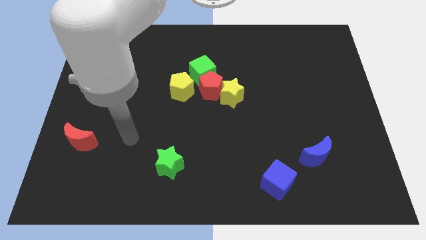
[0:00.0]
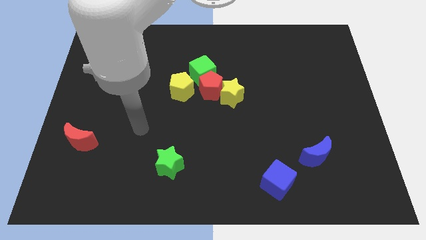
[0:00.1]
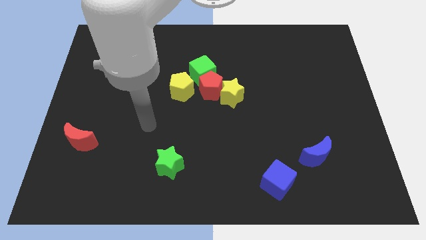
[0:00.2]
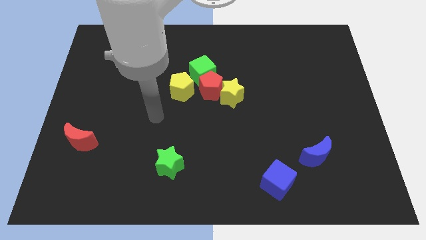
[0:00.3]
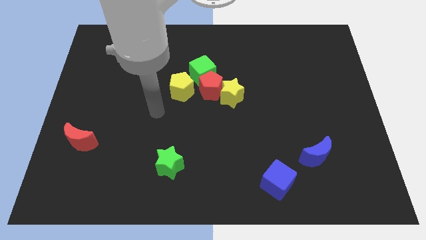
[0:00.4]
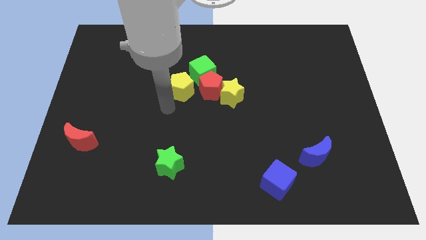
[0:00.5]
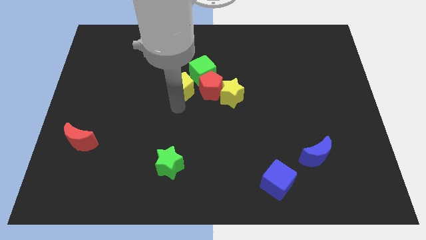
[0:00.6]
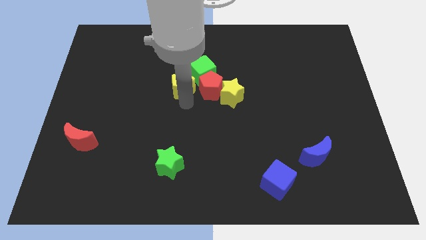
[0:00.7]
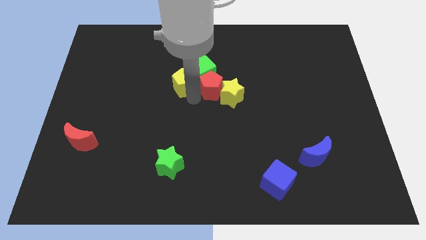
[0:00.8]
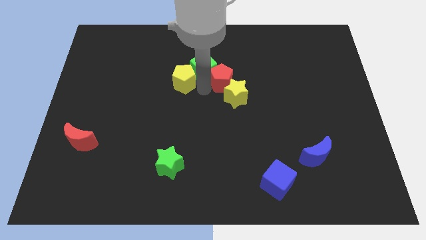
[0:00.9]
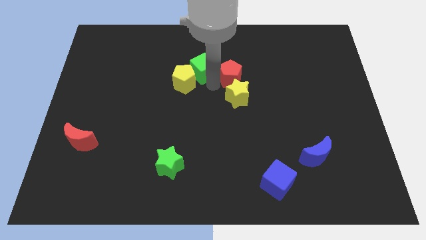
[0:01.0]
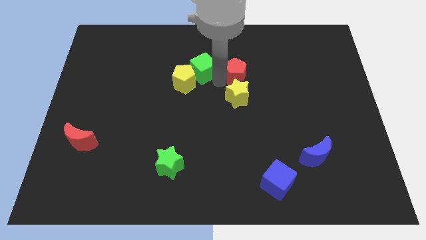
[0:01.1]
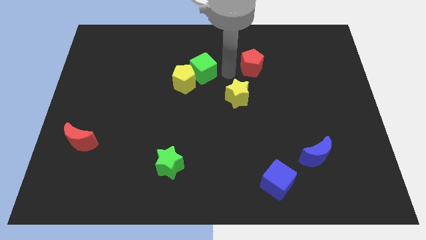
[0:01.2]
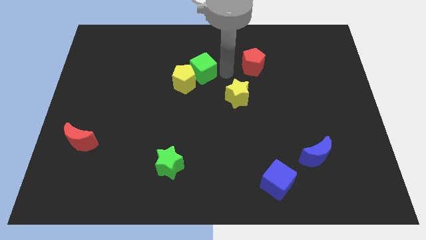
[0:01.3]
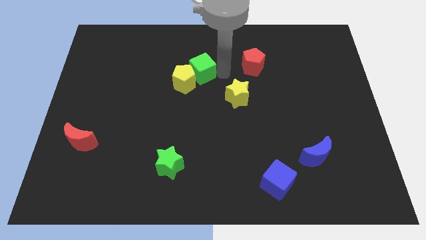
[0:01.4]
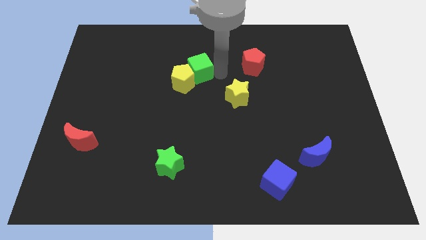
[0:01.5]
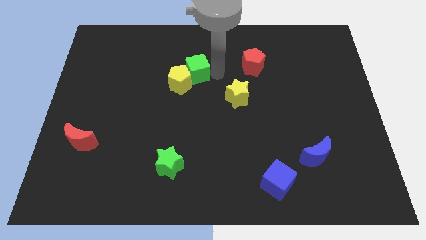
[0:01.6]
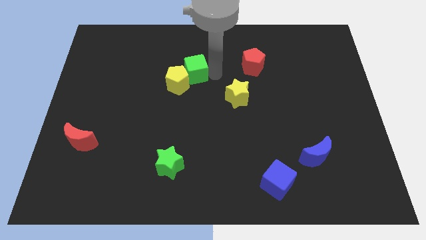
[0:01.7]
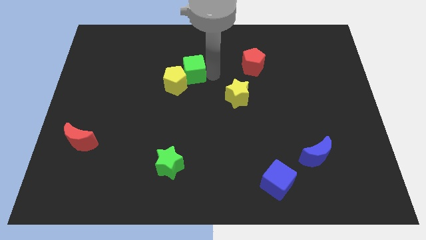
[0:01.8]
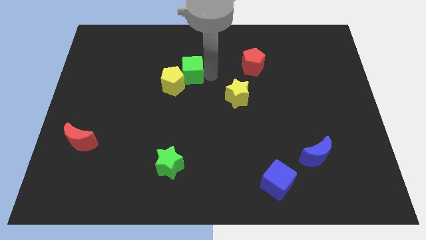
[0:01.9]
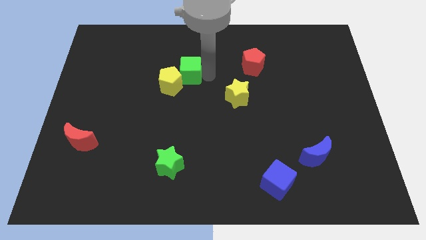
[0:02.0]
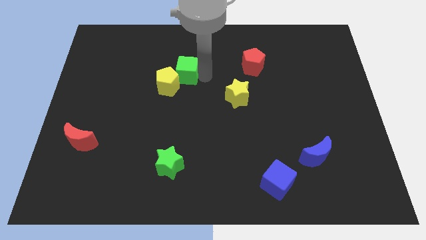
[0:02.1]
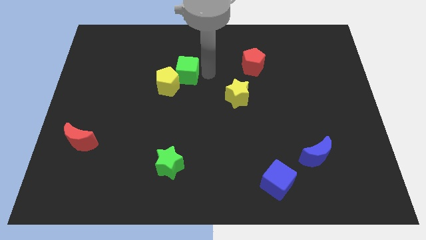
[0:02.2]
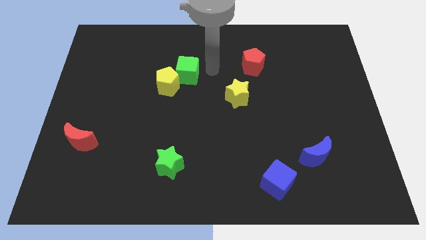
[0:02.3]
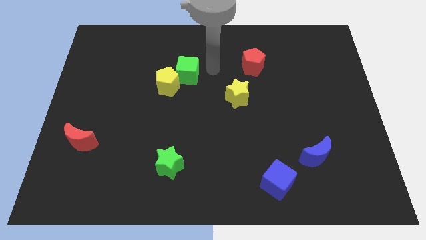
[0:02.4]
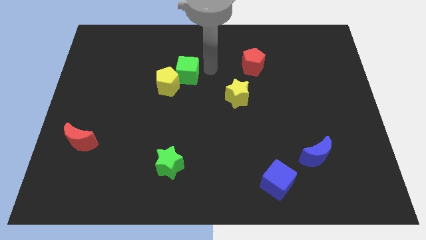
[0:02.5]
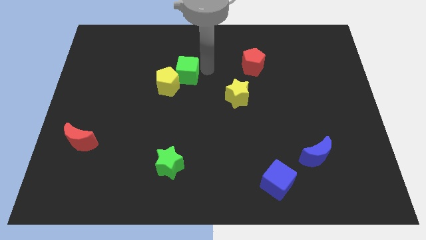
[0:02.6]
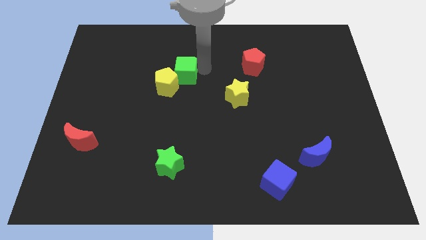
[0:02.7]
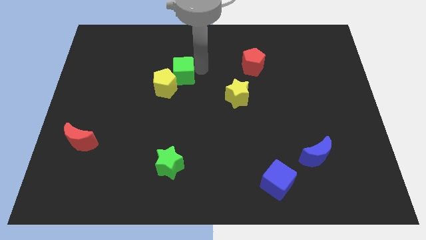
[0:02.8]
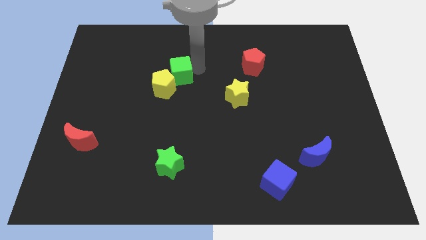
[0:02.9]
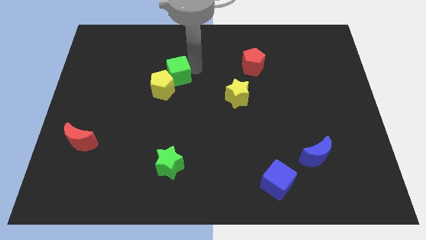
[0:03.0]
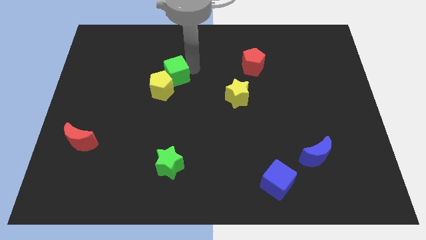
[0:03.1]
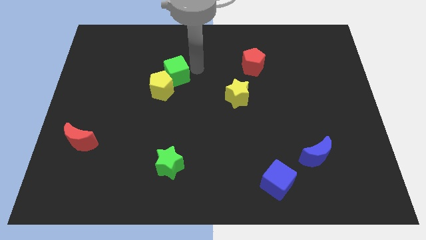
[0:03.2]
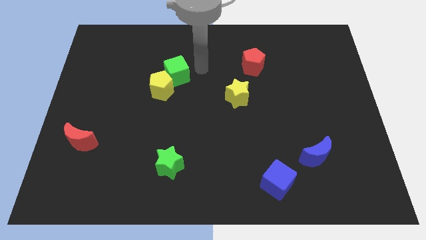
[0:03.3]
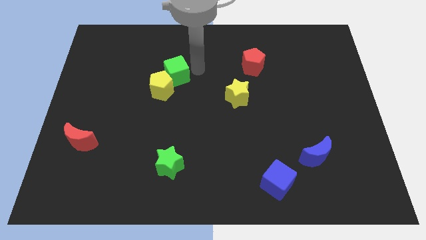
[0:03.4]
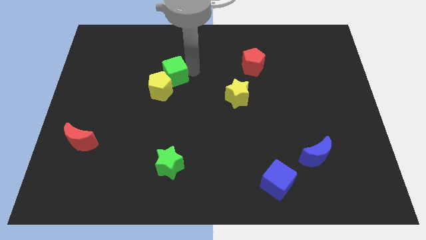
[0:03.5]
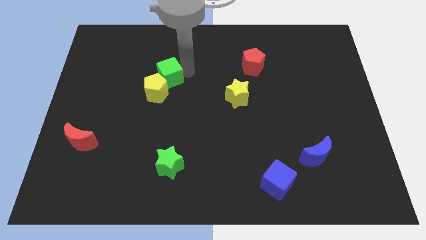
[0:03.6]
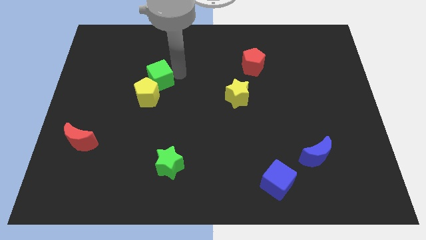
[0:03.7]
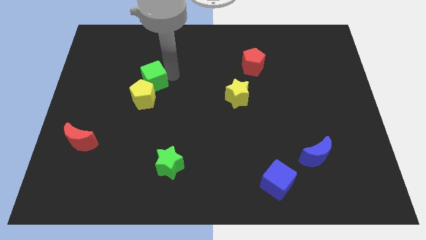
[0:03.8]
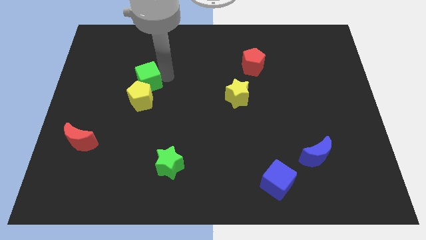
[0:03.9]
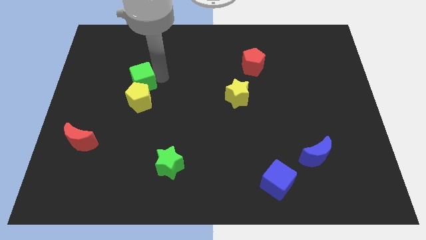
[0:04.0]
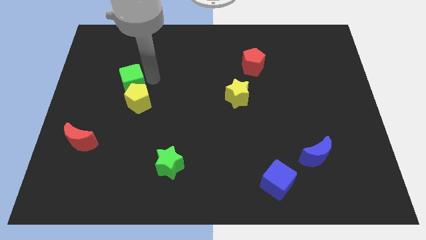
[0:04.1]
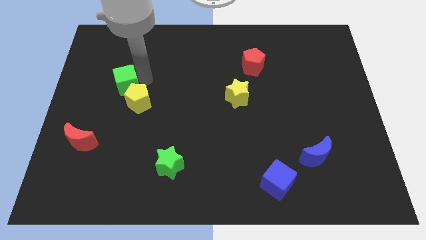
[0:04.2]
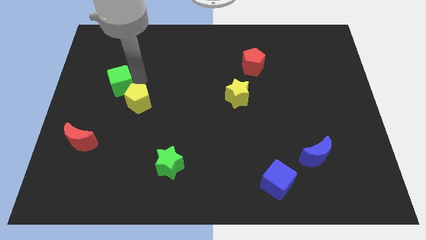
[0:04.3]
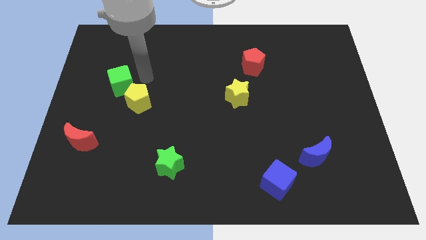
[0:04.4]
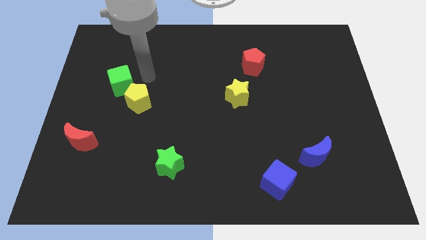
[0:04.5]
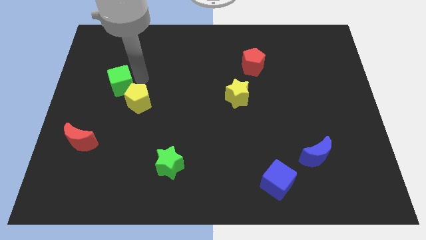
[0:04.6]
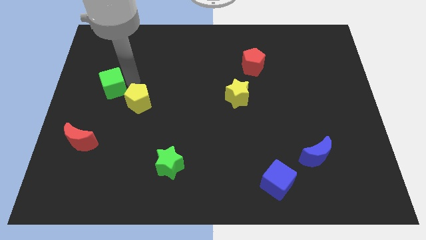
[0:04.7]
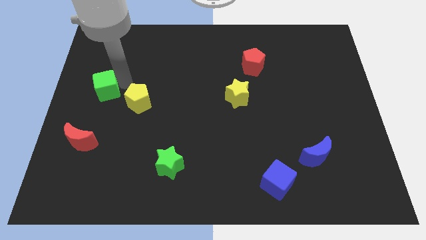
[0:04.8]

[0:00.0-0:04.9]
put the green cube to the left side of the board
